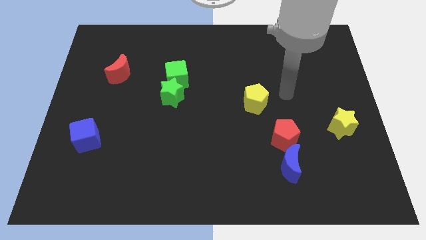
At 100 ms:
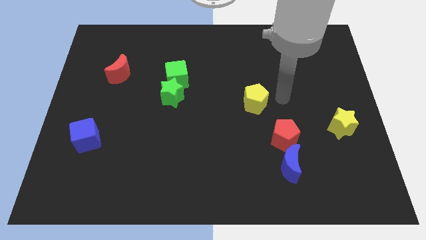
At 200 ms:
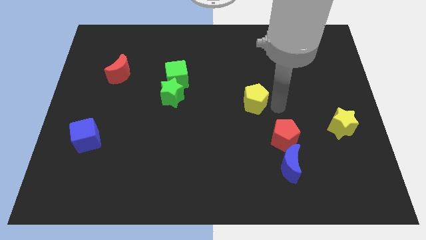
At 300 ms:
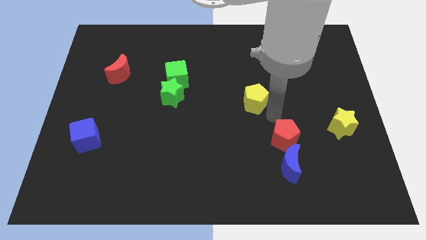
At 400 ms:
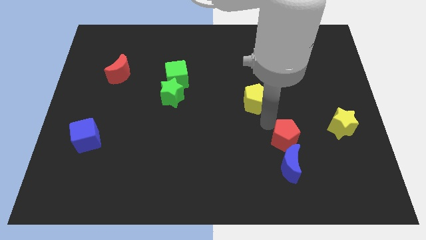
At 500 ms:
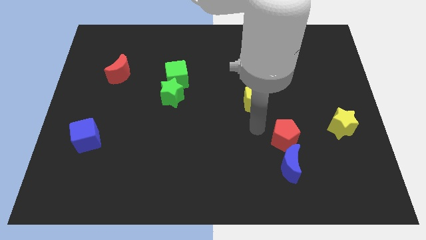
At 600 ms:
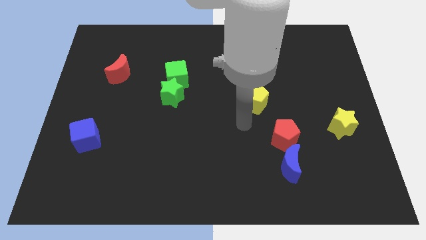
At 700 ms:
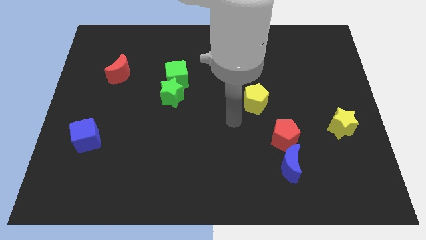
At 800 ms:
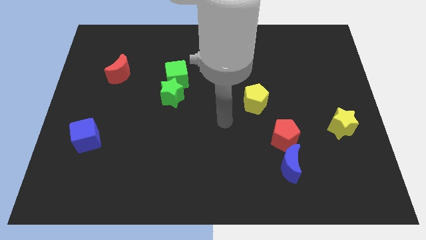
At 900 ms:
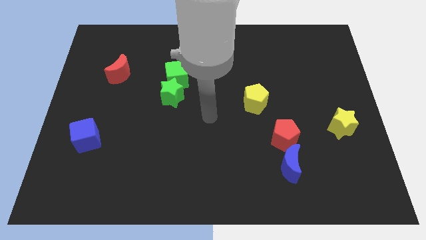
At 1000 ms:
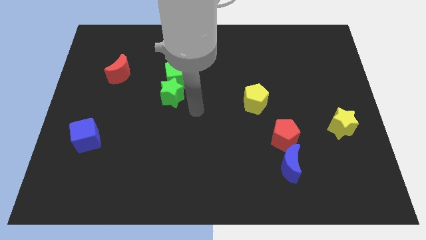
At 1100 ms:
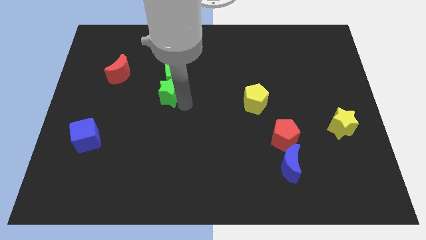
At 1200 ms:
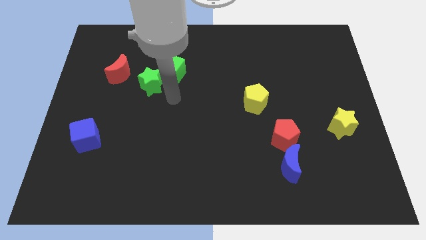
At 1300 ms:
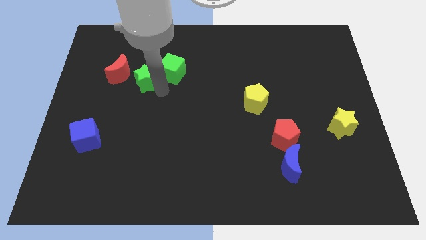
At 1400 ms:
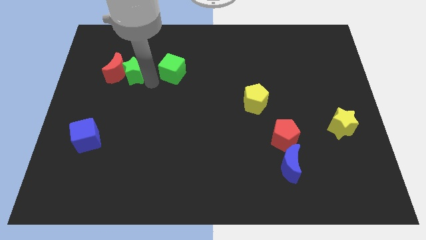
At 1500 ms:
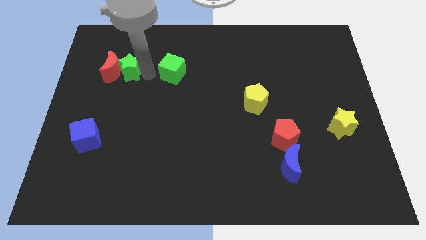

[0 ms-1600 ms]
move the green cube away from the green star

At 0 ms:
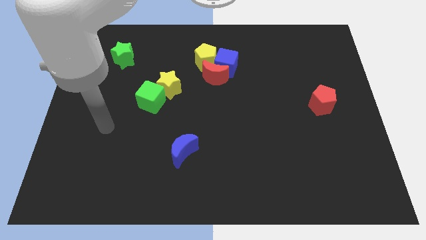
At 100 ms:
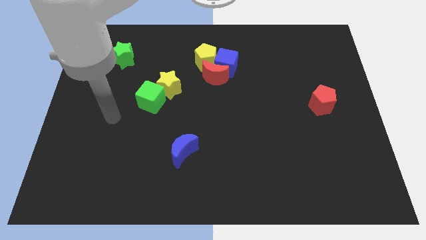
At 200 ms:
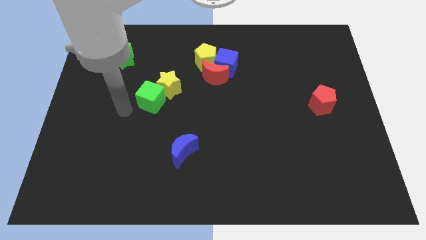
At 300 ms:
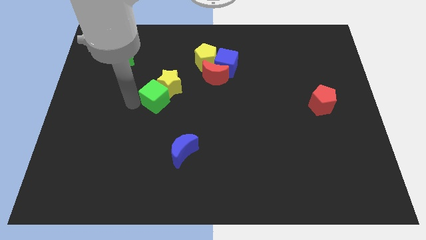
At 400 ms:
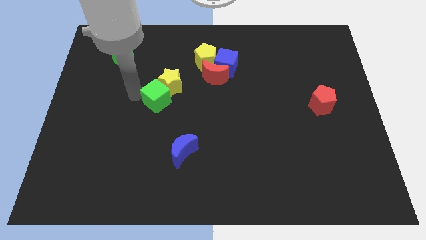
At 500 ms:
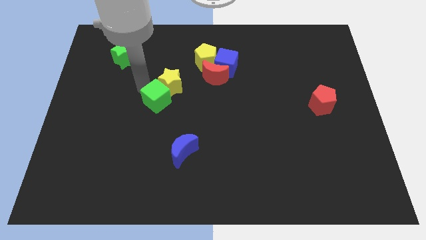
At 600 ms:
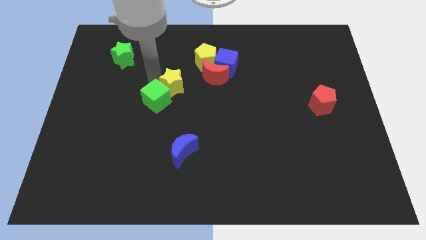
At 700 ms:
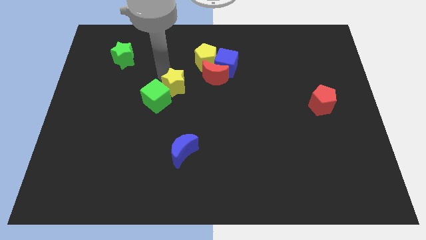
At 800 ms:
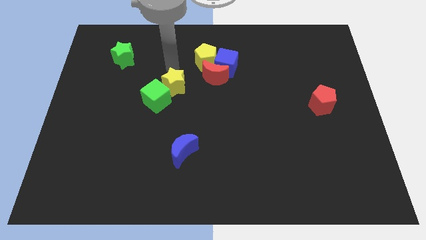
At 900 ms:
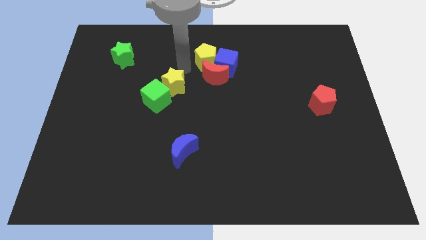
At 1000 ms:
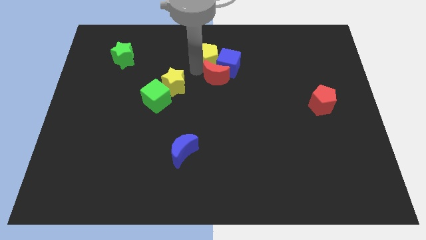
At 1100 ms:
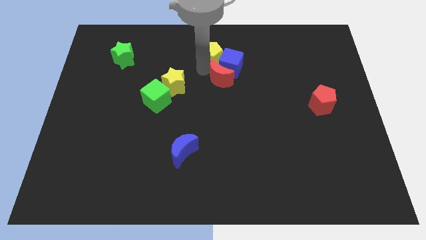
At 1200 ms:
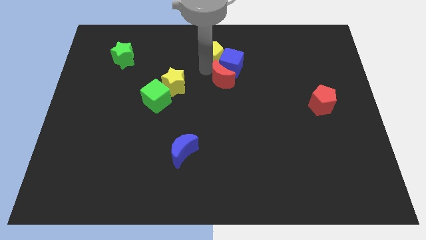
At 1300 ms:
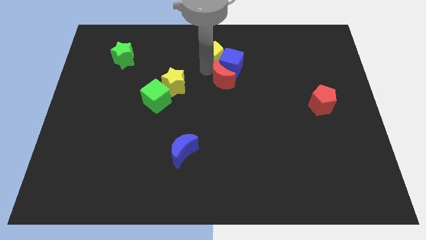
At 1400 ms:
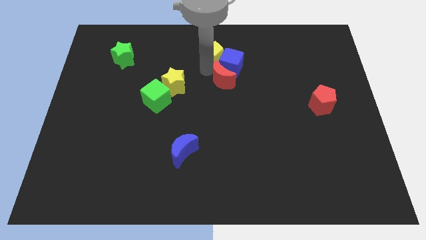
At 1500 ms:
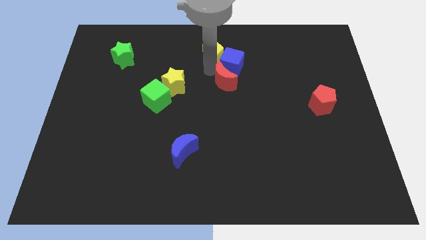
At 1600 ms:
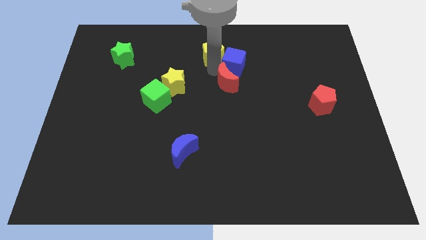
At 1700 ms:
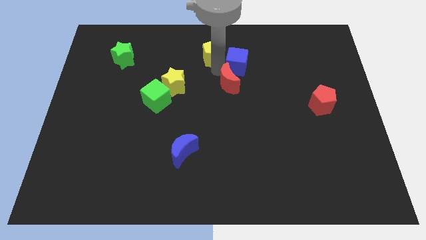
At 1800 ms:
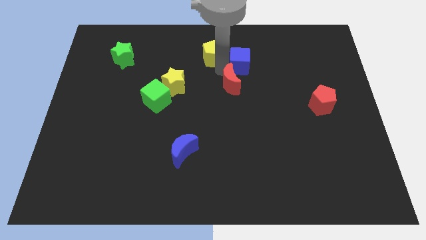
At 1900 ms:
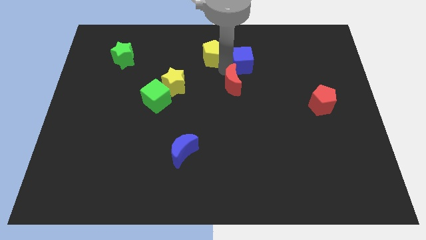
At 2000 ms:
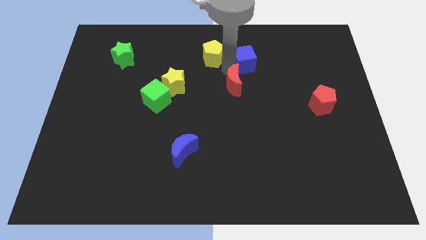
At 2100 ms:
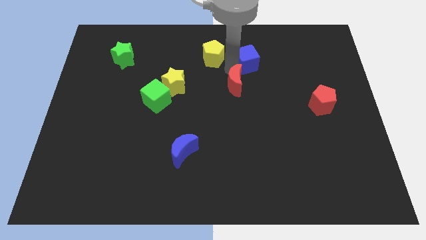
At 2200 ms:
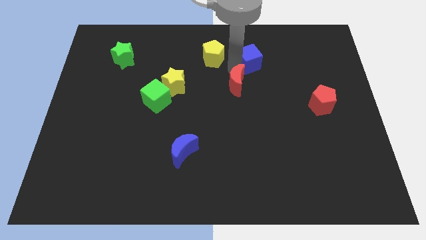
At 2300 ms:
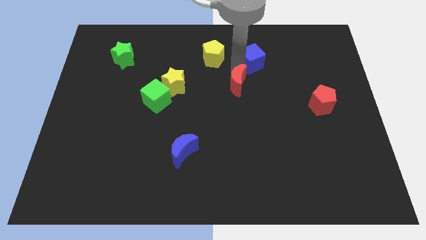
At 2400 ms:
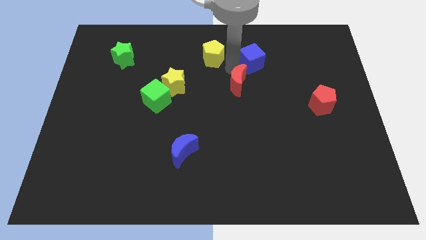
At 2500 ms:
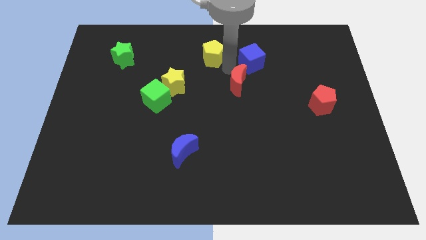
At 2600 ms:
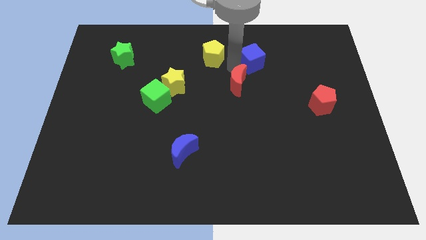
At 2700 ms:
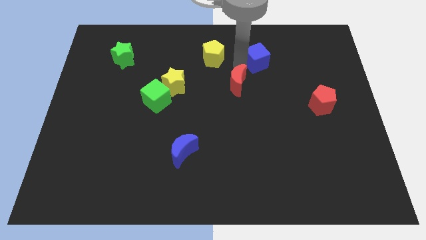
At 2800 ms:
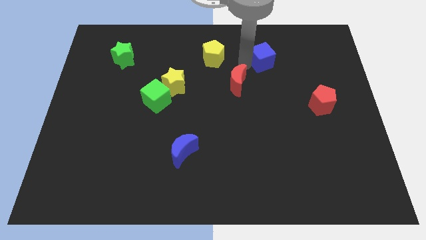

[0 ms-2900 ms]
pull the blue cube apart from the red moon and yellow pentagon

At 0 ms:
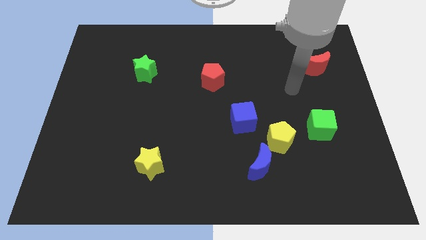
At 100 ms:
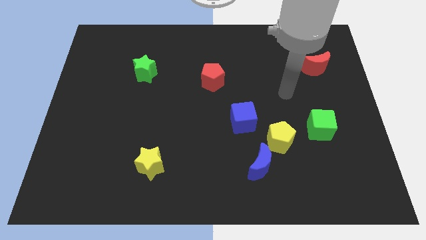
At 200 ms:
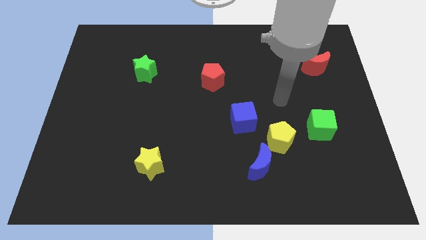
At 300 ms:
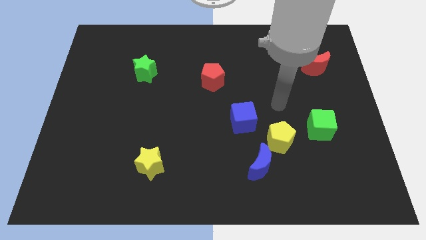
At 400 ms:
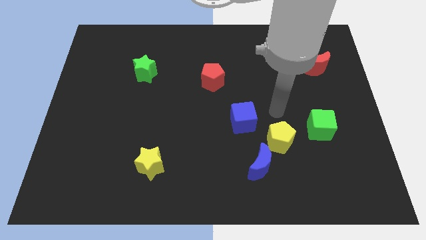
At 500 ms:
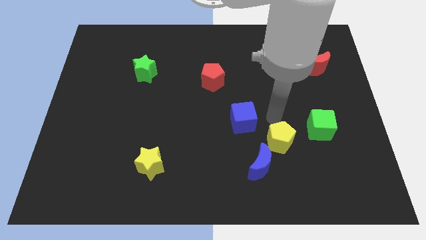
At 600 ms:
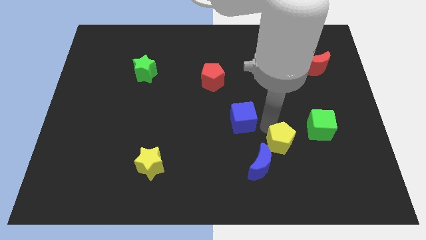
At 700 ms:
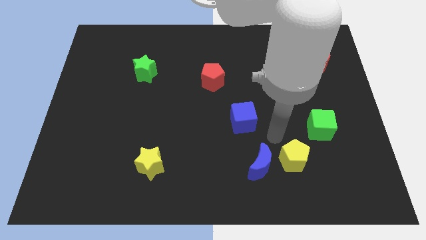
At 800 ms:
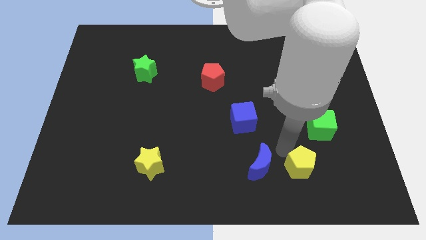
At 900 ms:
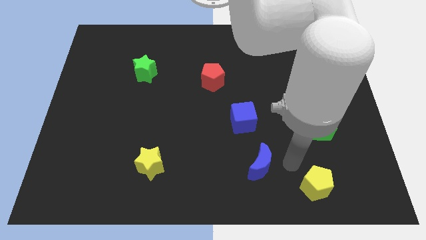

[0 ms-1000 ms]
separate the blue moon from the yellow pentagon

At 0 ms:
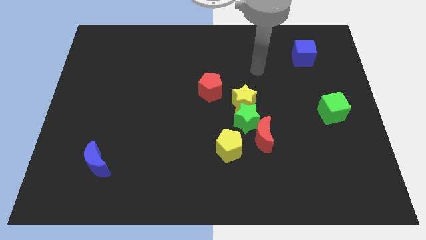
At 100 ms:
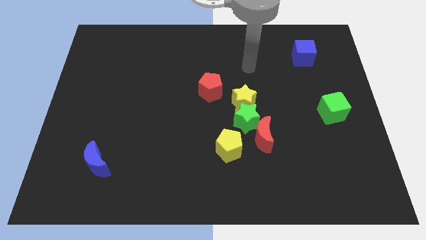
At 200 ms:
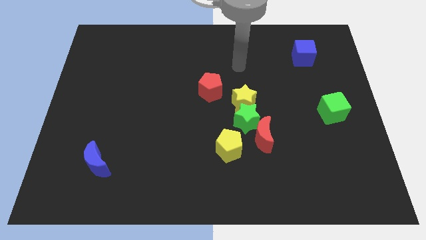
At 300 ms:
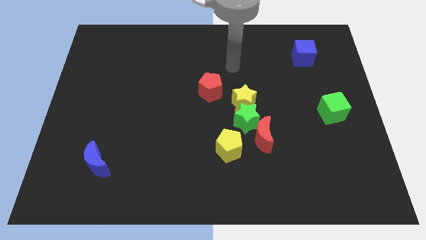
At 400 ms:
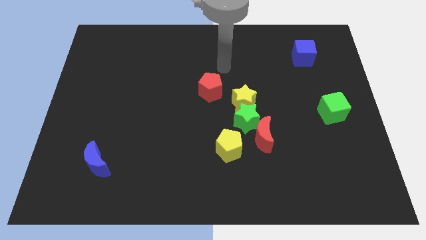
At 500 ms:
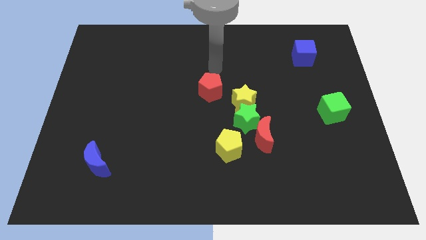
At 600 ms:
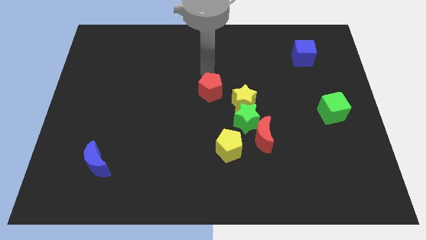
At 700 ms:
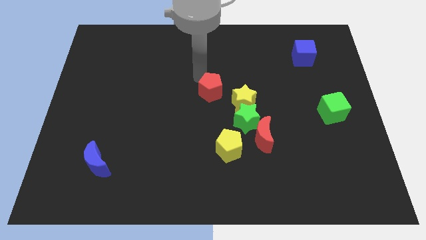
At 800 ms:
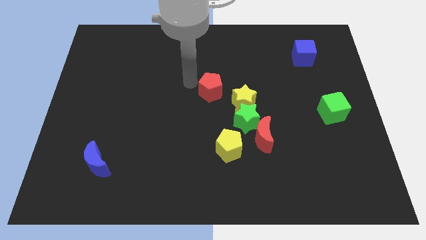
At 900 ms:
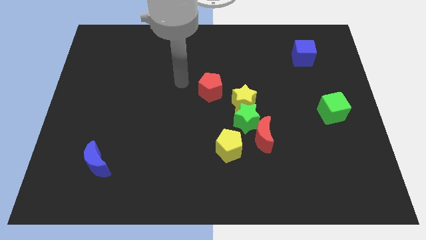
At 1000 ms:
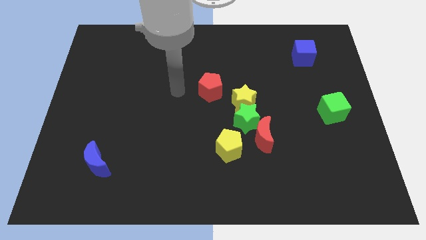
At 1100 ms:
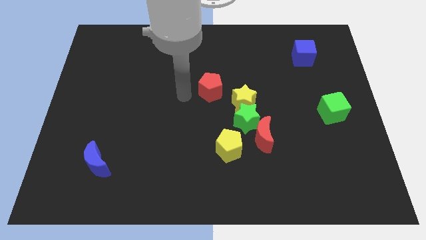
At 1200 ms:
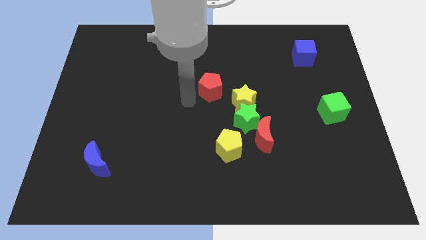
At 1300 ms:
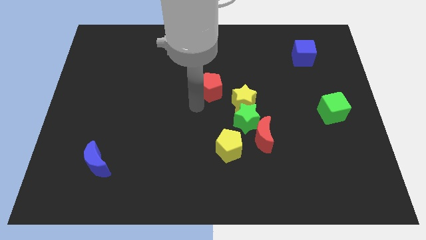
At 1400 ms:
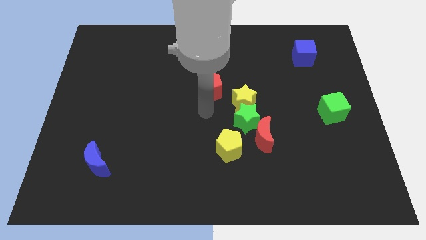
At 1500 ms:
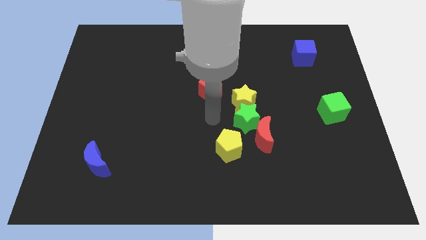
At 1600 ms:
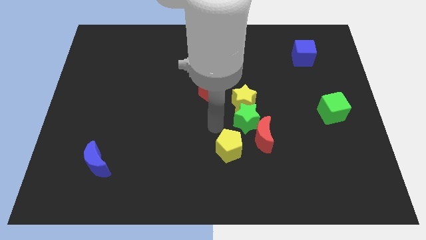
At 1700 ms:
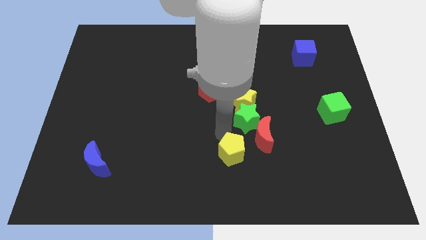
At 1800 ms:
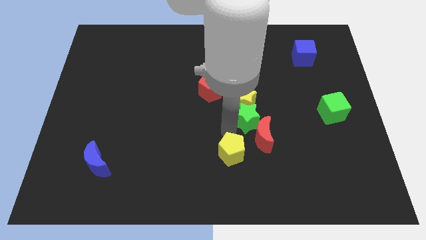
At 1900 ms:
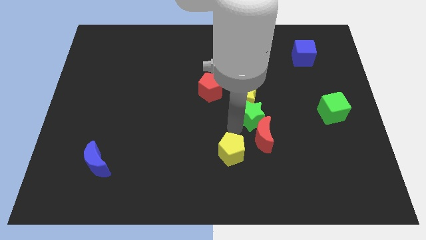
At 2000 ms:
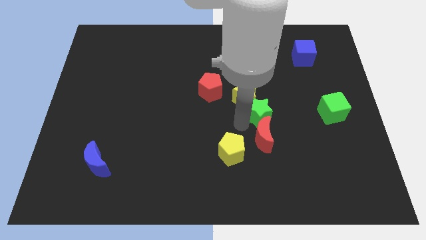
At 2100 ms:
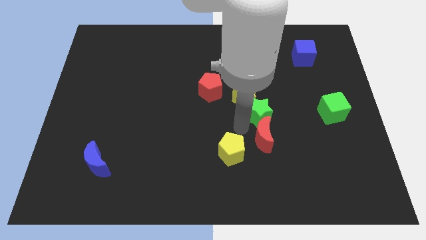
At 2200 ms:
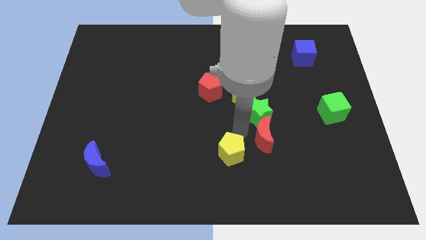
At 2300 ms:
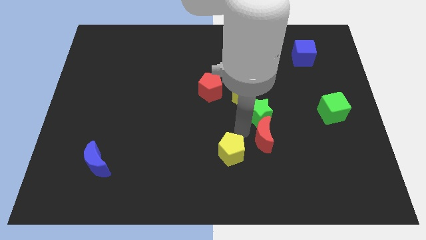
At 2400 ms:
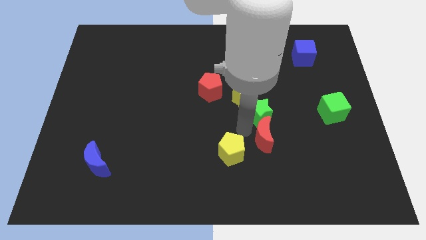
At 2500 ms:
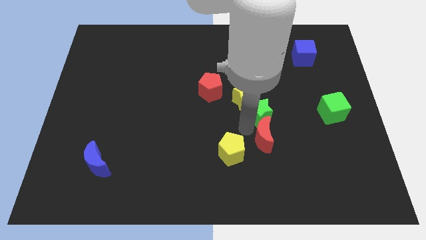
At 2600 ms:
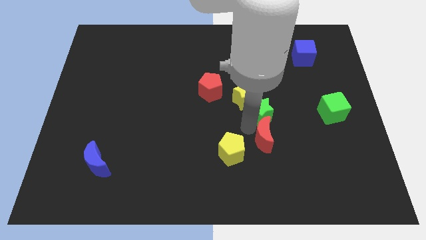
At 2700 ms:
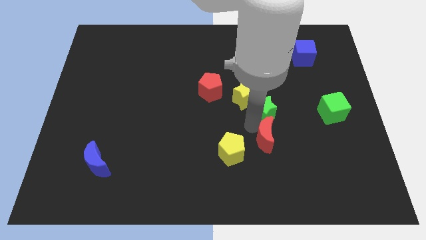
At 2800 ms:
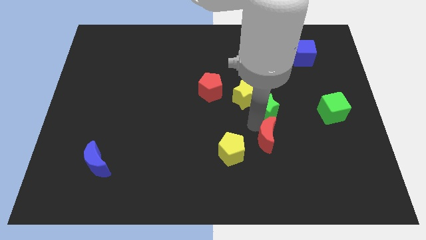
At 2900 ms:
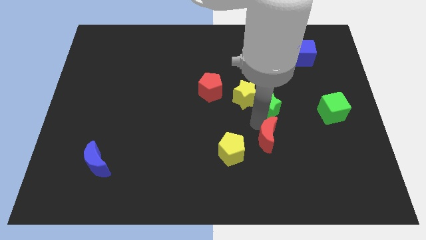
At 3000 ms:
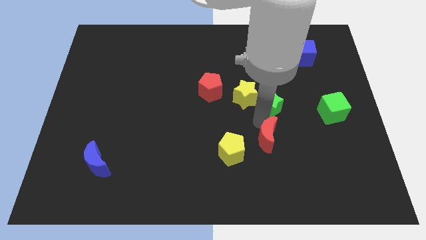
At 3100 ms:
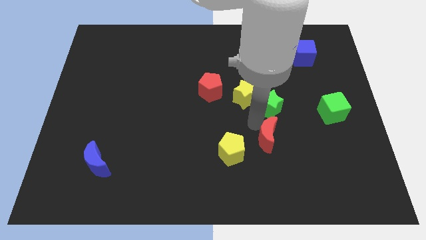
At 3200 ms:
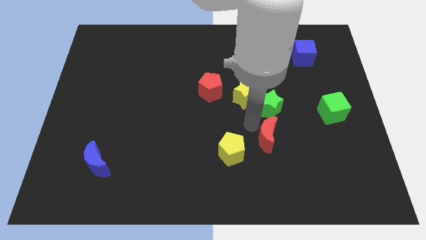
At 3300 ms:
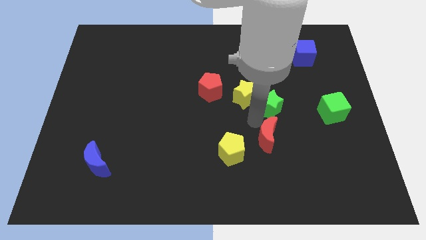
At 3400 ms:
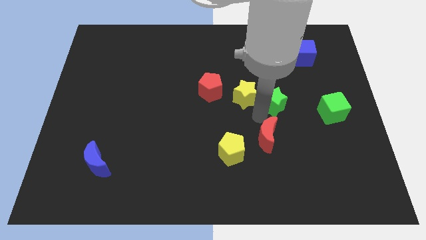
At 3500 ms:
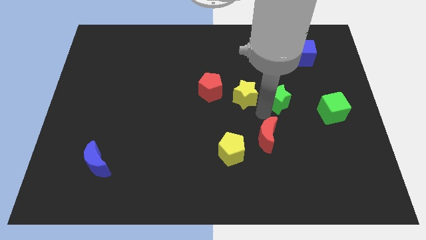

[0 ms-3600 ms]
pull the green star apart from the clump

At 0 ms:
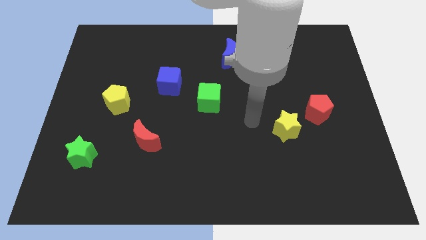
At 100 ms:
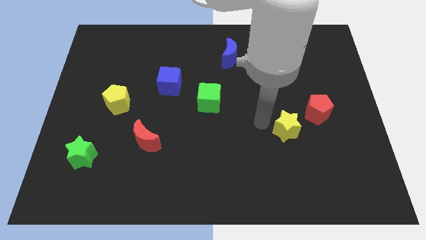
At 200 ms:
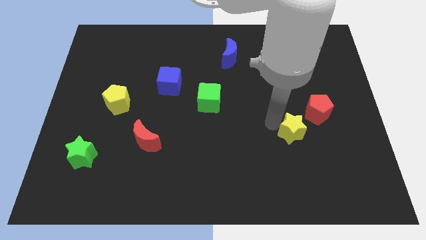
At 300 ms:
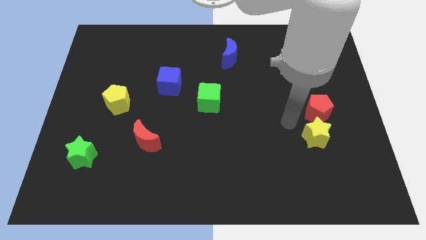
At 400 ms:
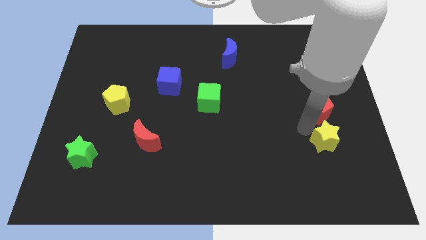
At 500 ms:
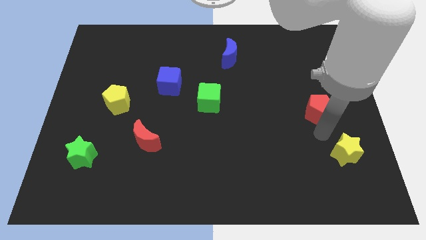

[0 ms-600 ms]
move the red pentagon away from the yellow star
